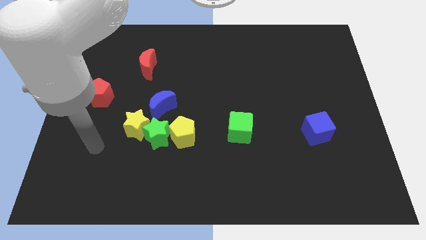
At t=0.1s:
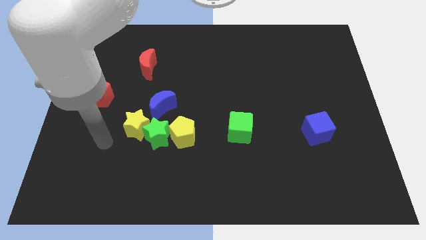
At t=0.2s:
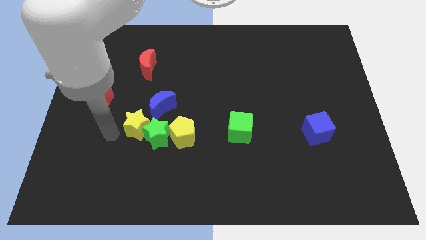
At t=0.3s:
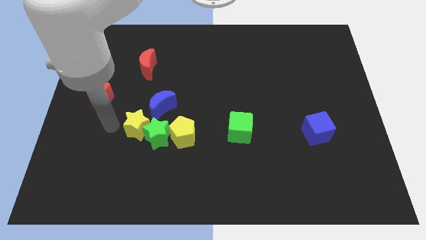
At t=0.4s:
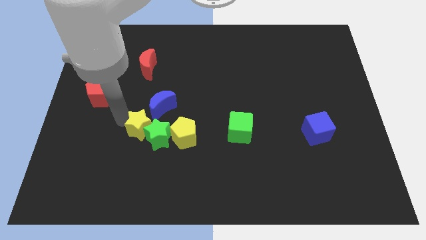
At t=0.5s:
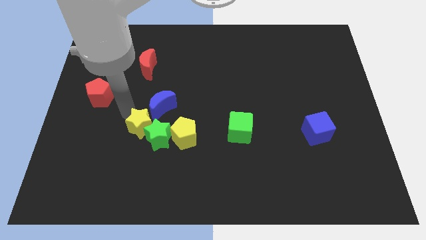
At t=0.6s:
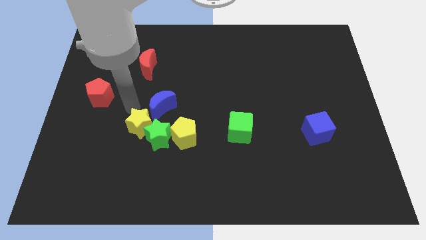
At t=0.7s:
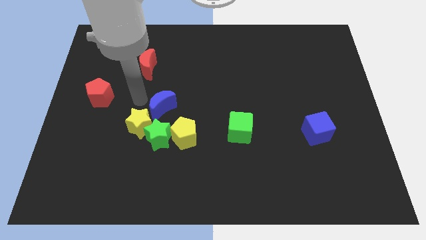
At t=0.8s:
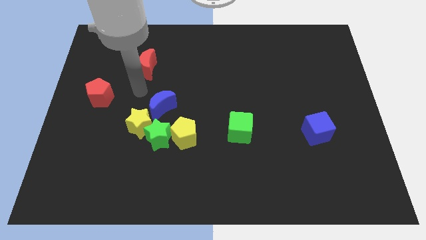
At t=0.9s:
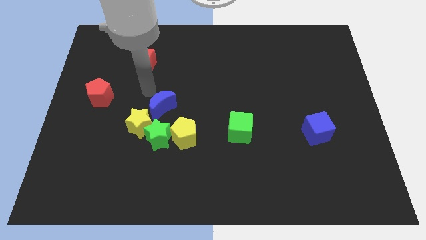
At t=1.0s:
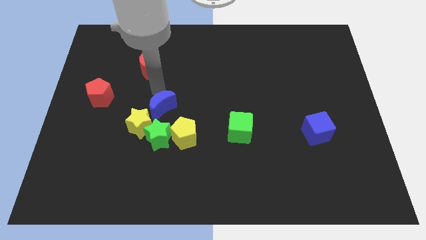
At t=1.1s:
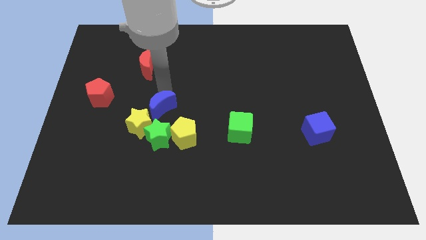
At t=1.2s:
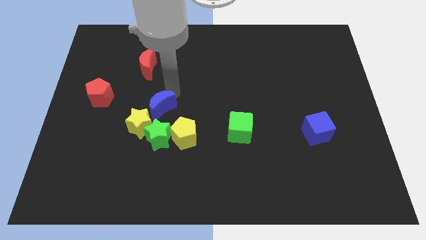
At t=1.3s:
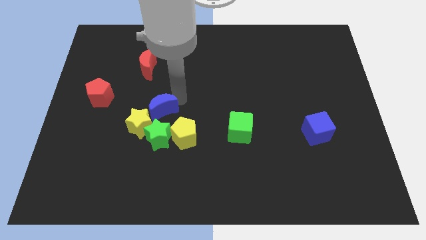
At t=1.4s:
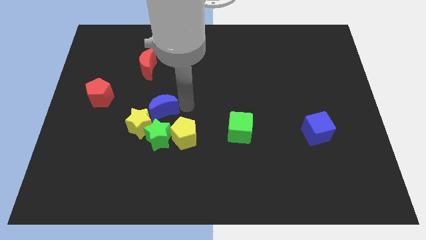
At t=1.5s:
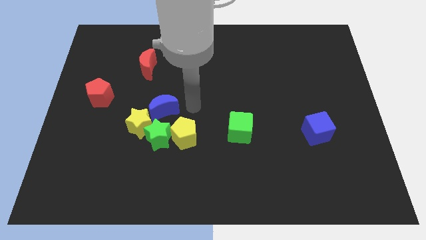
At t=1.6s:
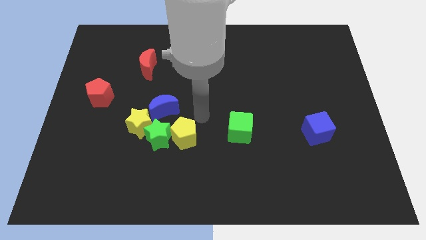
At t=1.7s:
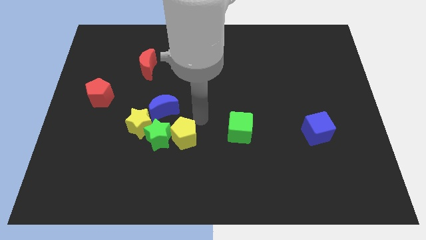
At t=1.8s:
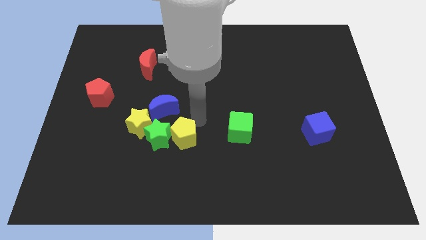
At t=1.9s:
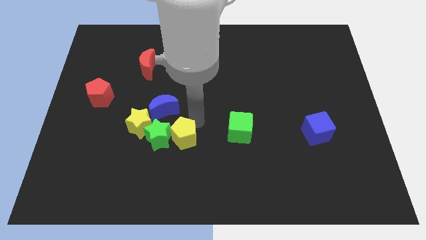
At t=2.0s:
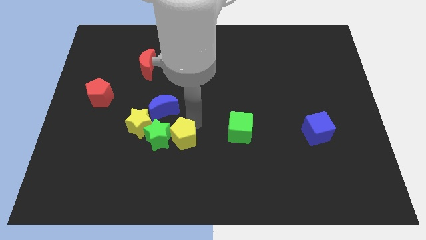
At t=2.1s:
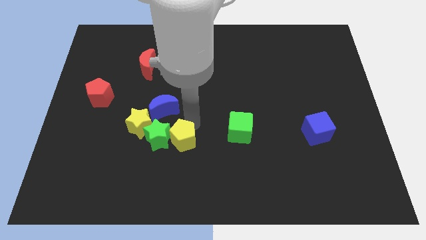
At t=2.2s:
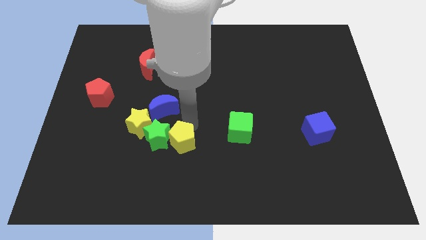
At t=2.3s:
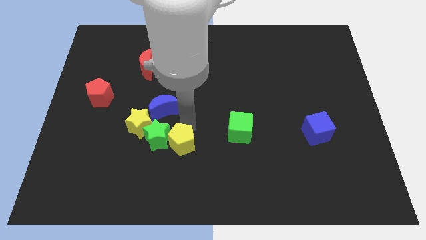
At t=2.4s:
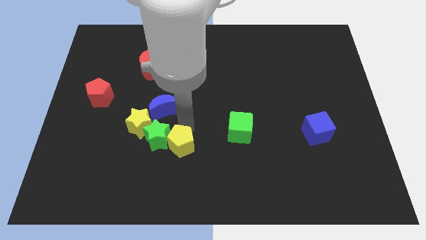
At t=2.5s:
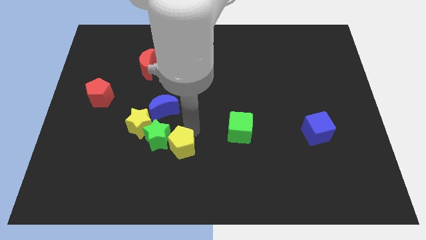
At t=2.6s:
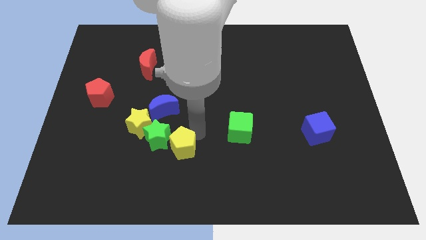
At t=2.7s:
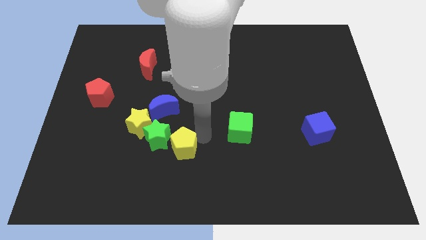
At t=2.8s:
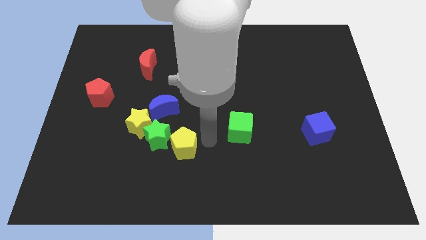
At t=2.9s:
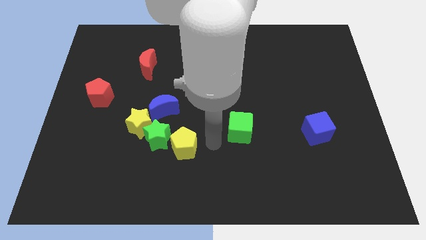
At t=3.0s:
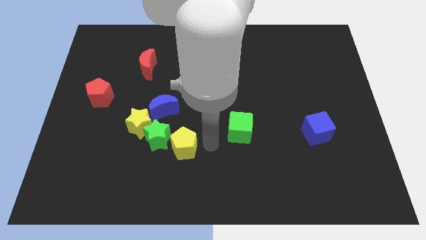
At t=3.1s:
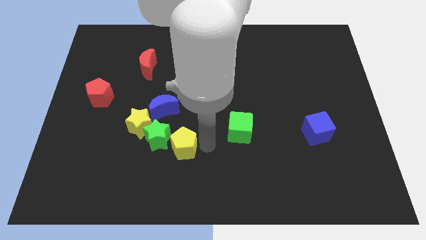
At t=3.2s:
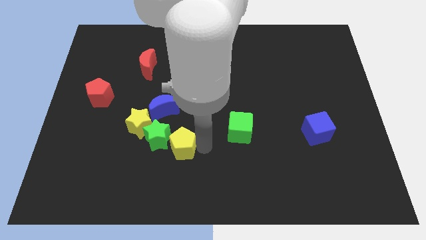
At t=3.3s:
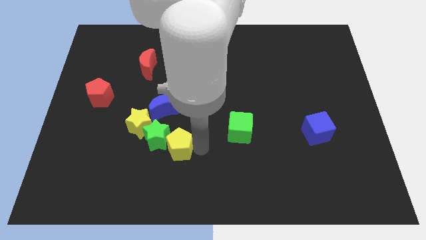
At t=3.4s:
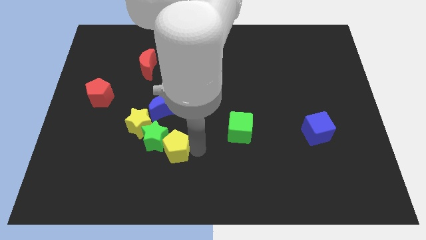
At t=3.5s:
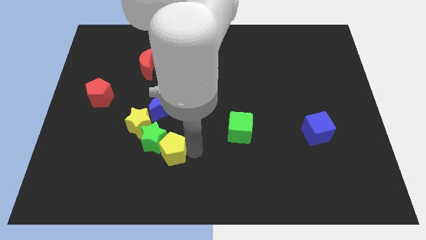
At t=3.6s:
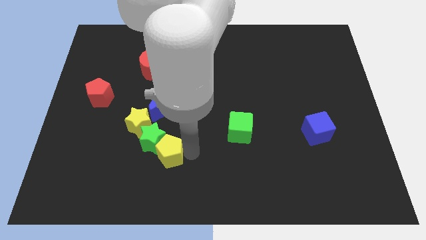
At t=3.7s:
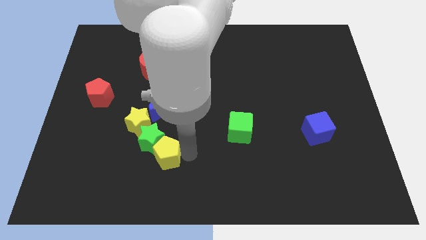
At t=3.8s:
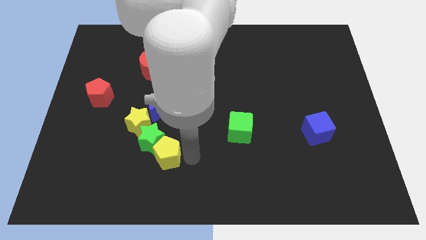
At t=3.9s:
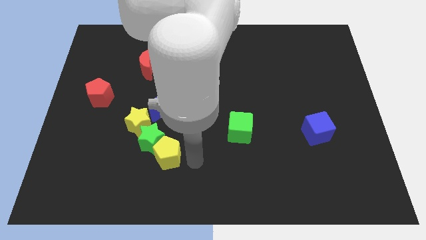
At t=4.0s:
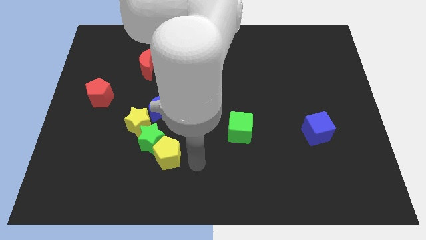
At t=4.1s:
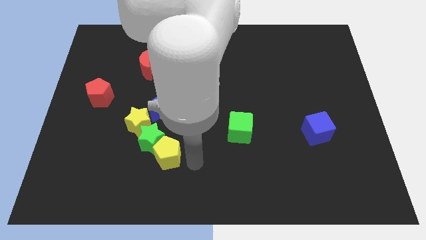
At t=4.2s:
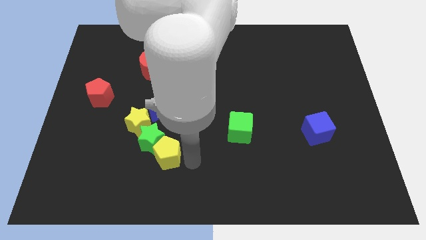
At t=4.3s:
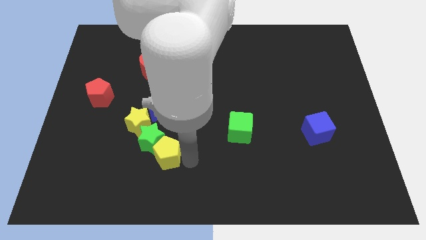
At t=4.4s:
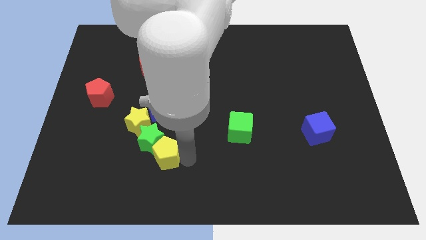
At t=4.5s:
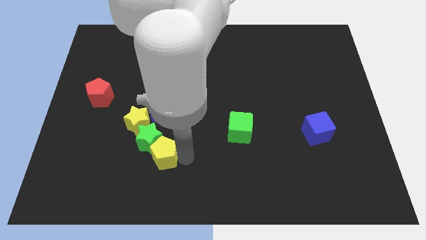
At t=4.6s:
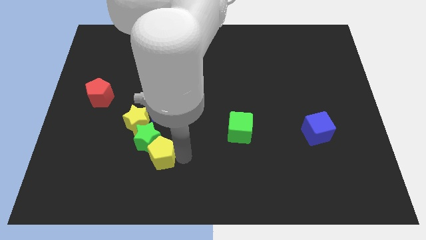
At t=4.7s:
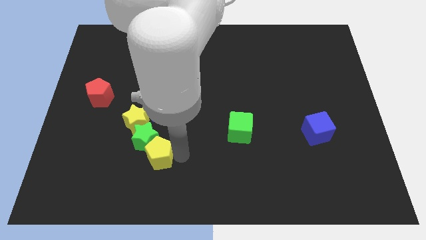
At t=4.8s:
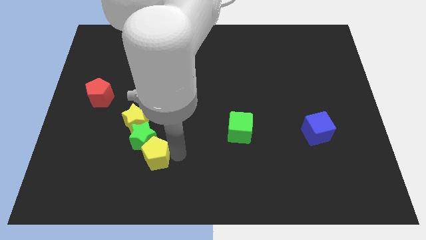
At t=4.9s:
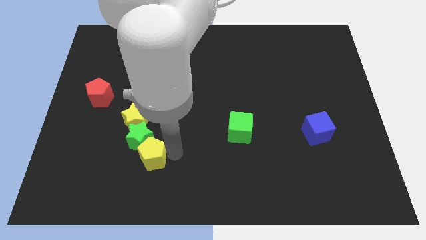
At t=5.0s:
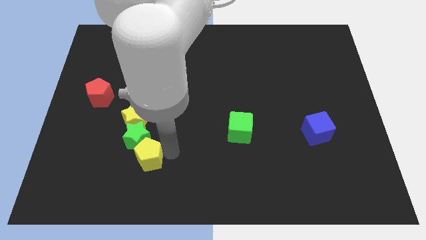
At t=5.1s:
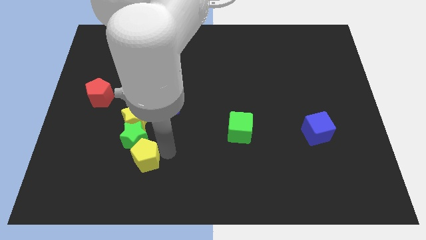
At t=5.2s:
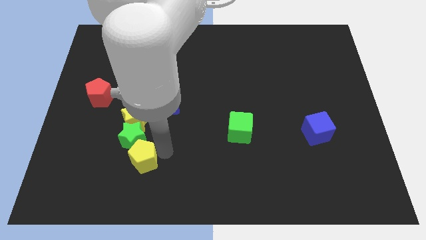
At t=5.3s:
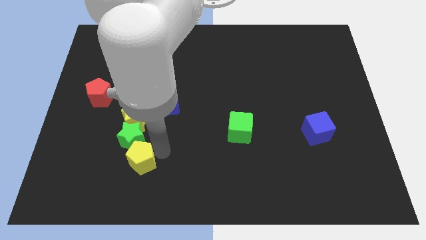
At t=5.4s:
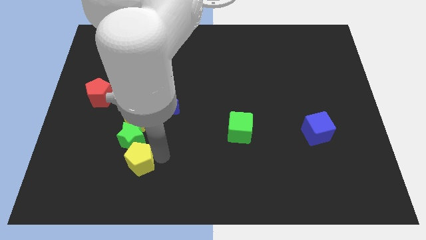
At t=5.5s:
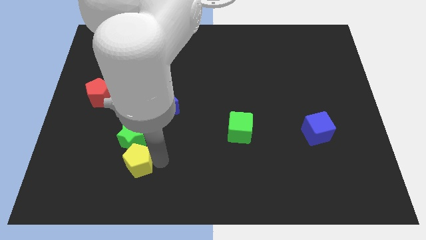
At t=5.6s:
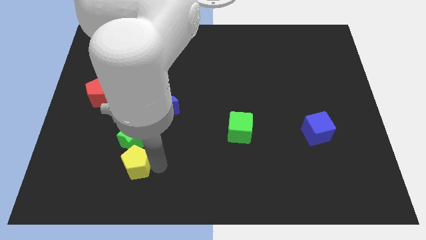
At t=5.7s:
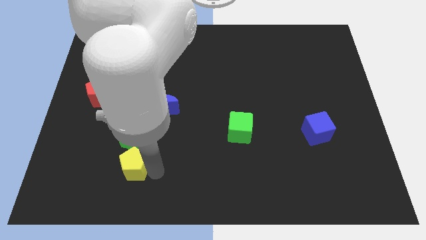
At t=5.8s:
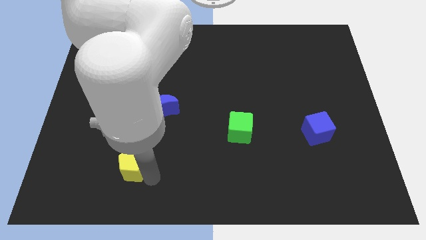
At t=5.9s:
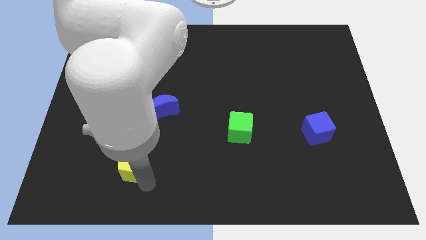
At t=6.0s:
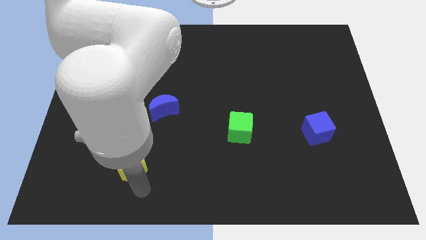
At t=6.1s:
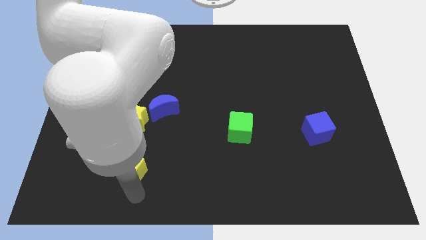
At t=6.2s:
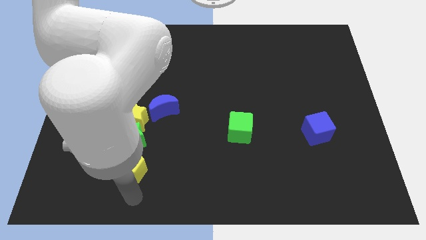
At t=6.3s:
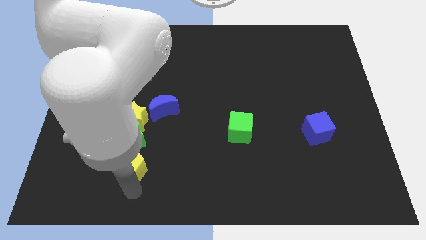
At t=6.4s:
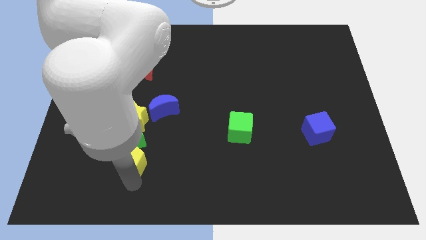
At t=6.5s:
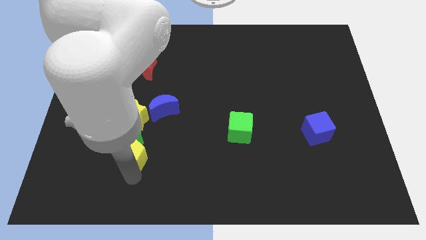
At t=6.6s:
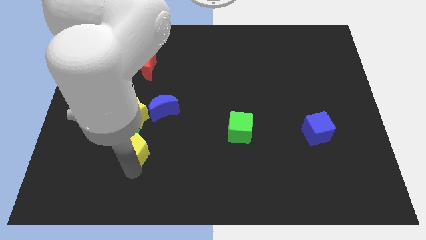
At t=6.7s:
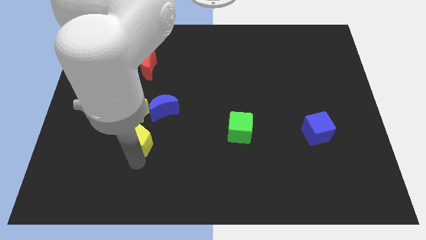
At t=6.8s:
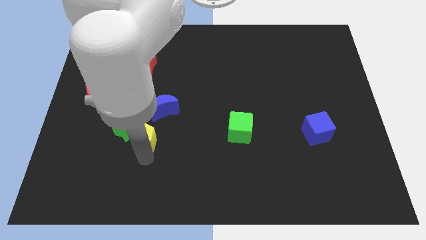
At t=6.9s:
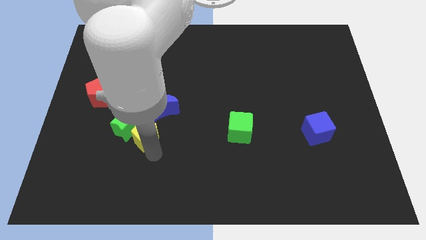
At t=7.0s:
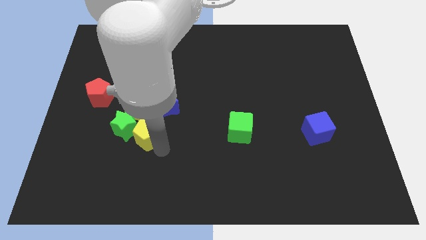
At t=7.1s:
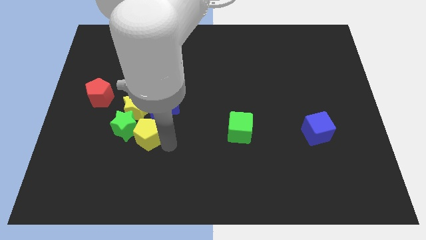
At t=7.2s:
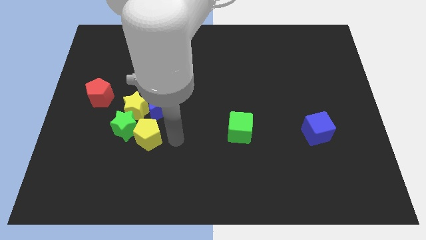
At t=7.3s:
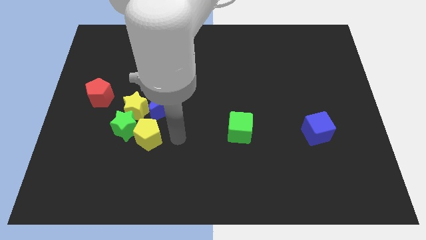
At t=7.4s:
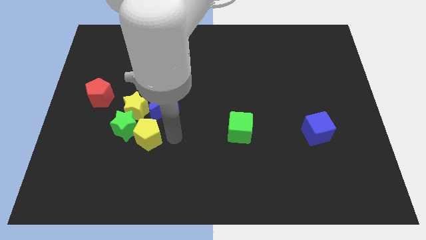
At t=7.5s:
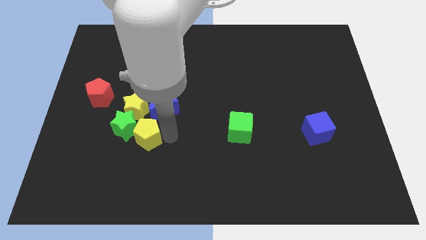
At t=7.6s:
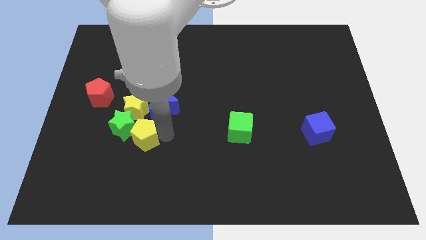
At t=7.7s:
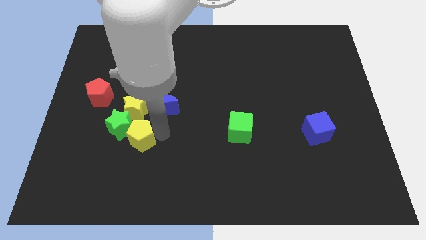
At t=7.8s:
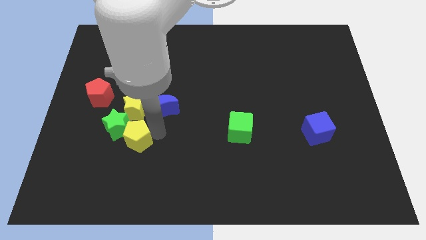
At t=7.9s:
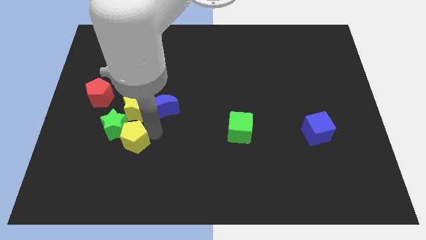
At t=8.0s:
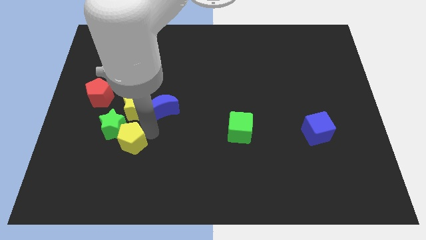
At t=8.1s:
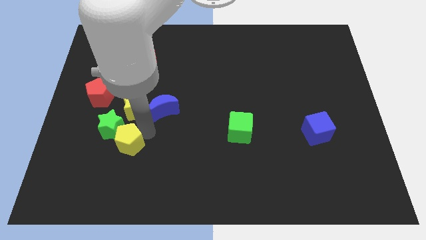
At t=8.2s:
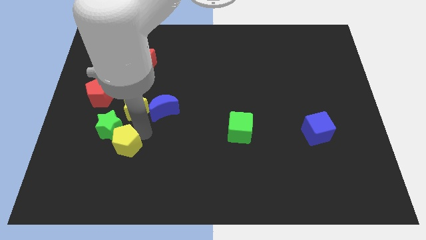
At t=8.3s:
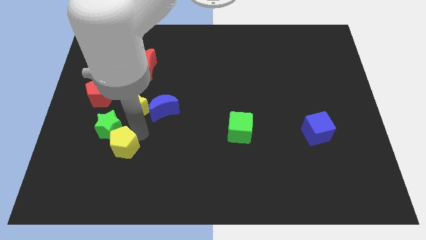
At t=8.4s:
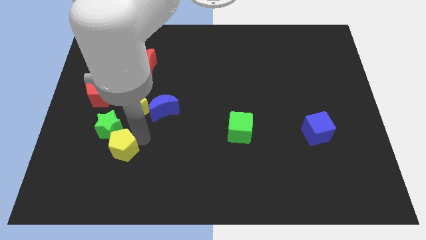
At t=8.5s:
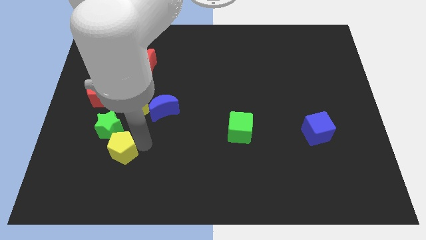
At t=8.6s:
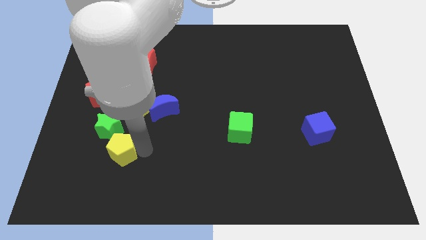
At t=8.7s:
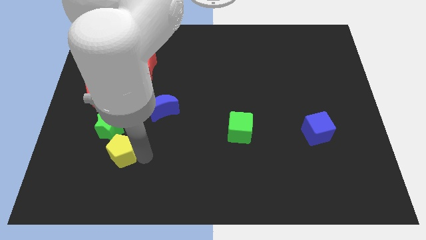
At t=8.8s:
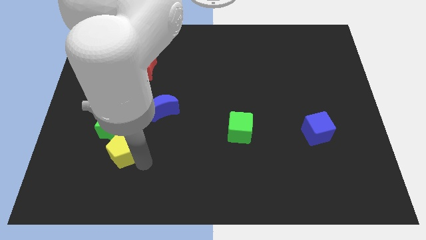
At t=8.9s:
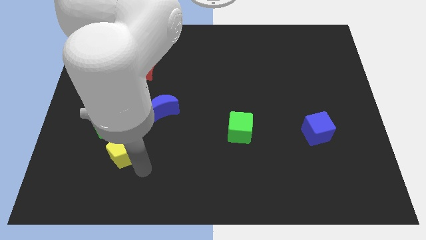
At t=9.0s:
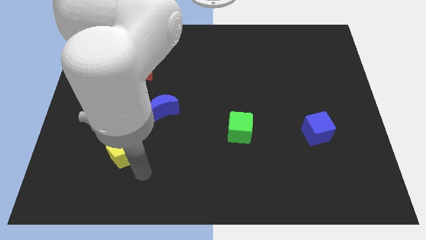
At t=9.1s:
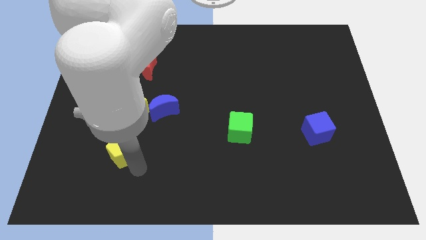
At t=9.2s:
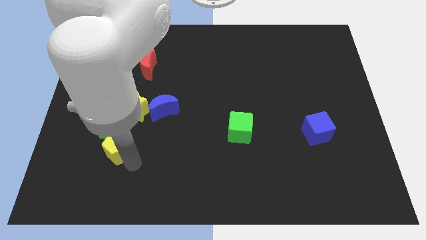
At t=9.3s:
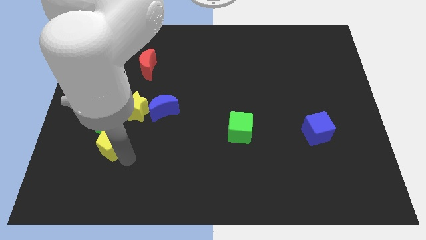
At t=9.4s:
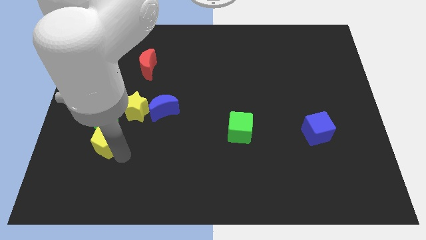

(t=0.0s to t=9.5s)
push the yellow pentagon to the bottom side of the red pentagon
